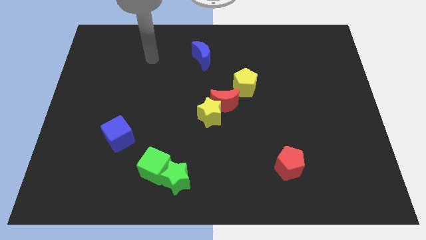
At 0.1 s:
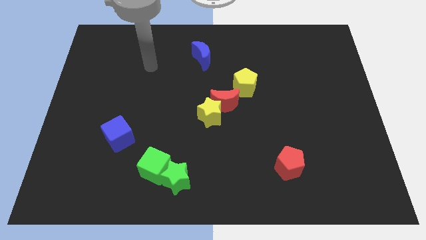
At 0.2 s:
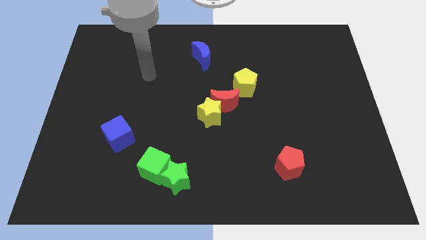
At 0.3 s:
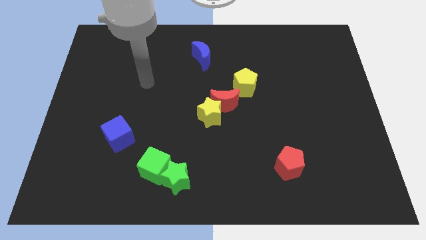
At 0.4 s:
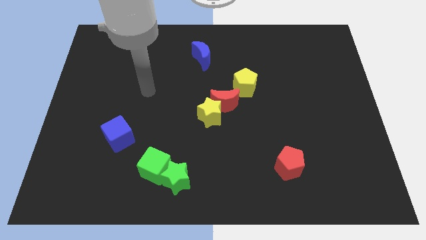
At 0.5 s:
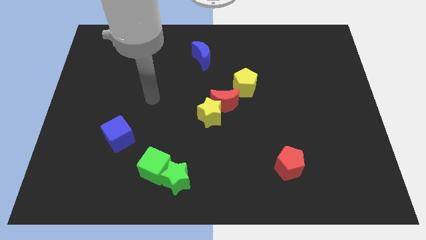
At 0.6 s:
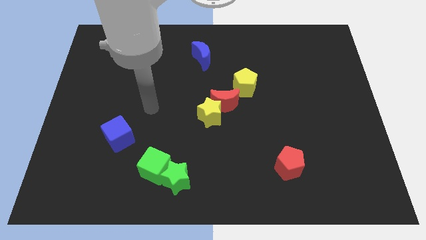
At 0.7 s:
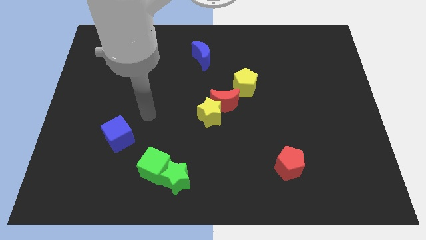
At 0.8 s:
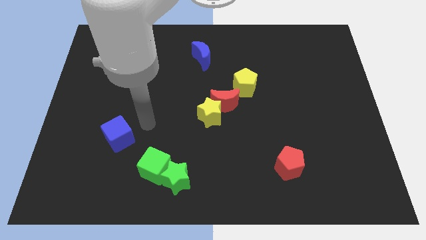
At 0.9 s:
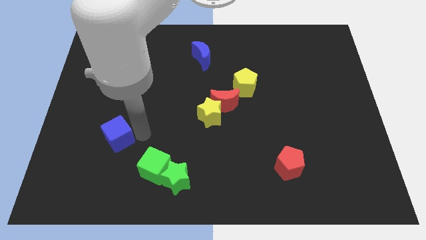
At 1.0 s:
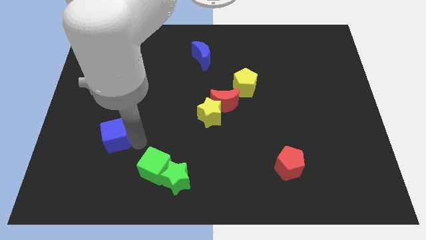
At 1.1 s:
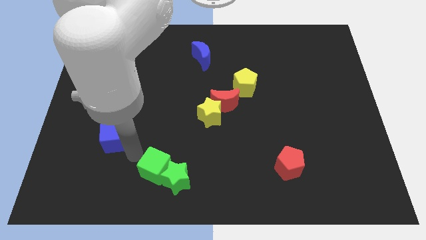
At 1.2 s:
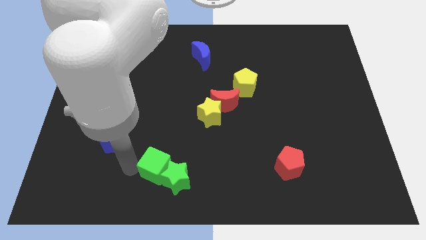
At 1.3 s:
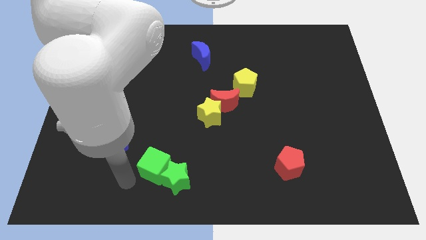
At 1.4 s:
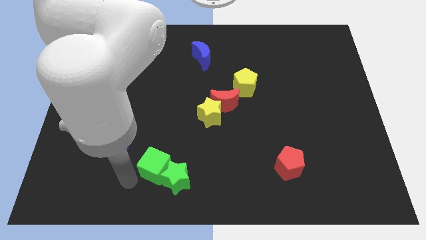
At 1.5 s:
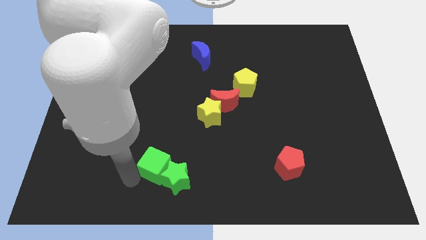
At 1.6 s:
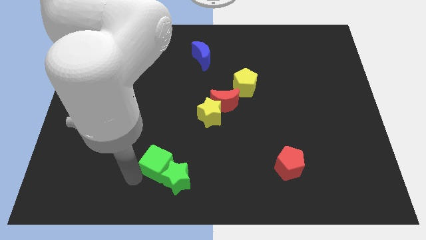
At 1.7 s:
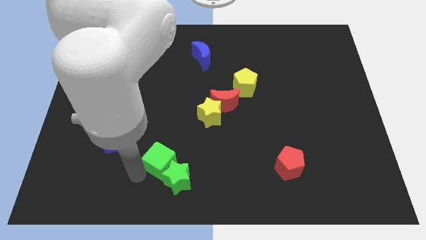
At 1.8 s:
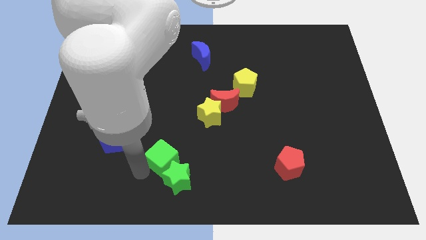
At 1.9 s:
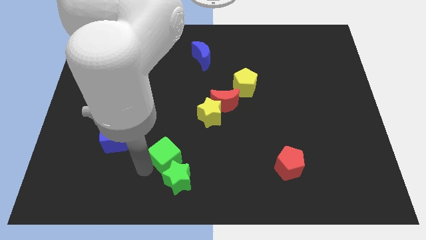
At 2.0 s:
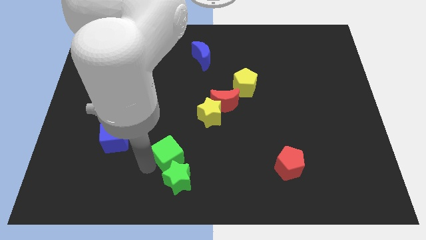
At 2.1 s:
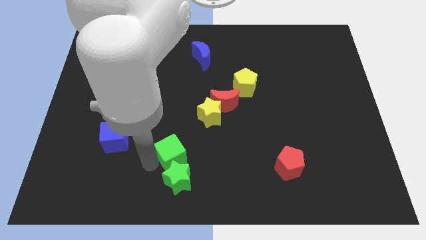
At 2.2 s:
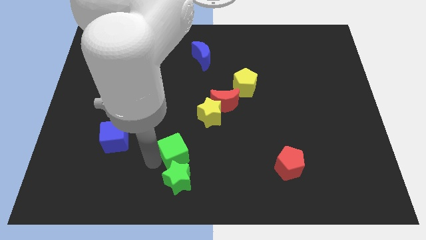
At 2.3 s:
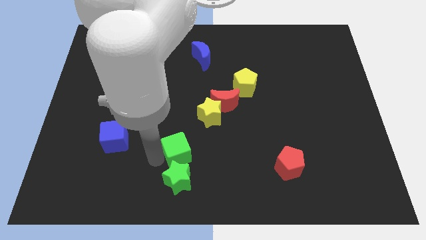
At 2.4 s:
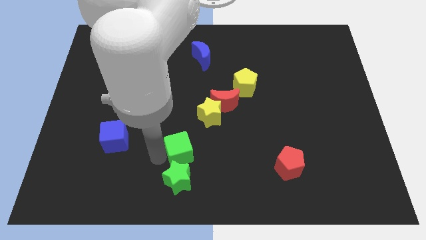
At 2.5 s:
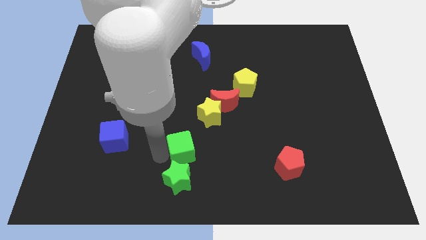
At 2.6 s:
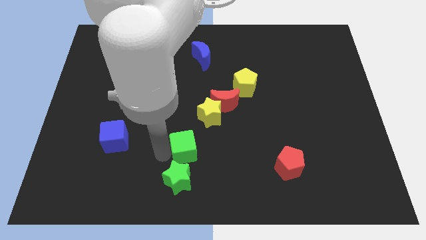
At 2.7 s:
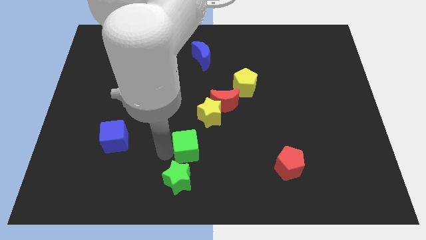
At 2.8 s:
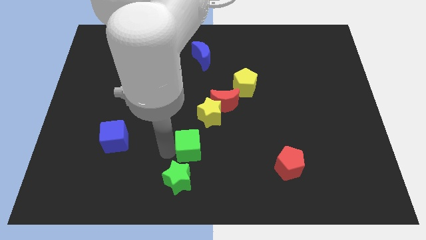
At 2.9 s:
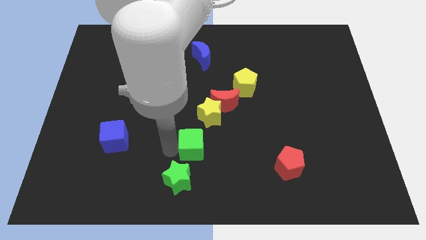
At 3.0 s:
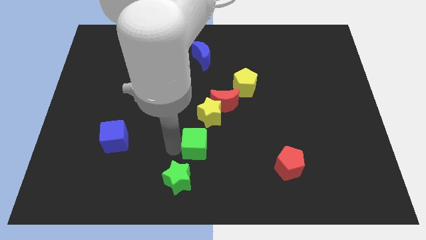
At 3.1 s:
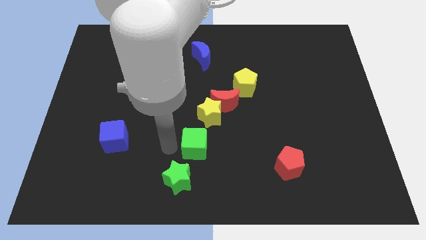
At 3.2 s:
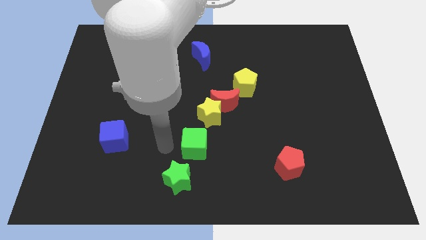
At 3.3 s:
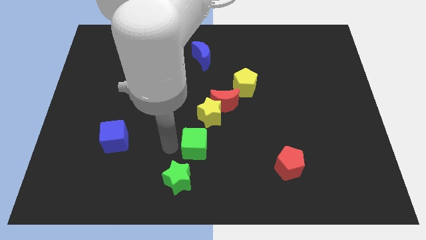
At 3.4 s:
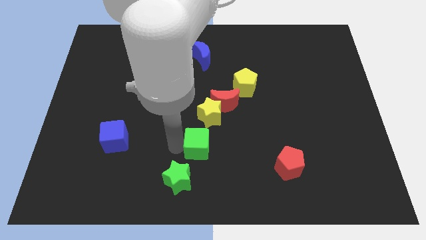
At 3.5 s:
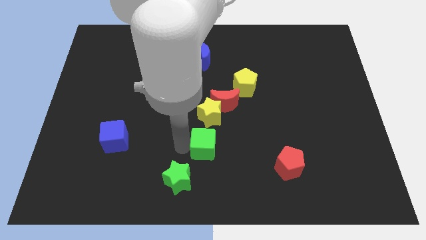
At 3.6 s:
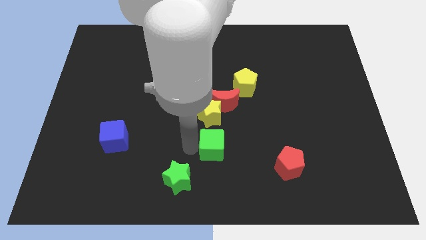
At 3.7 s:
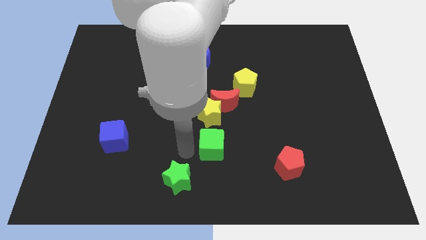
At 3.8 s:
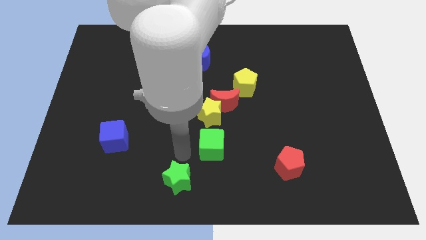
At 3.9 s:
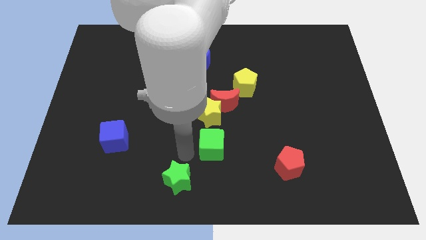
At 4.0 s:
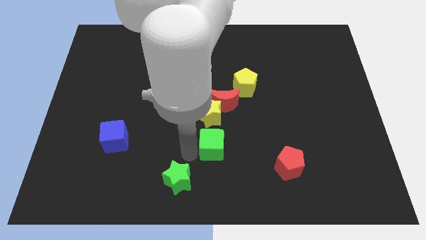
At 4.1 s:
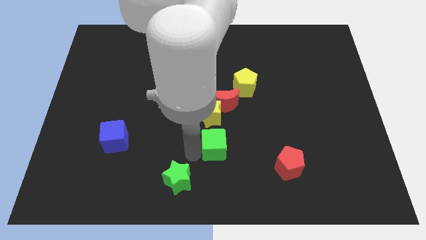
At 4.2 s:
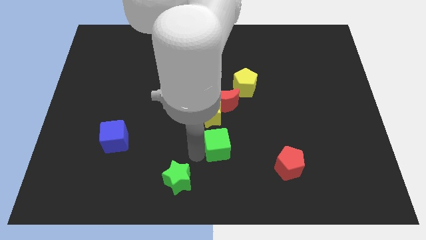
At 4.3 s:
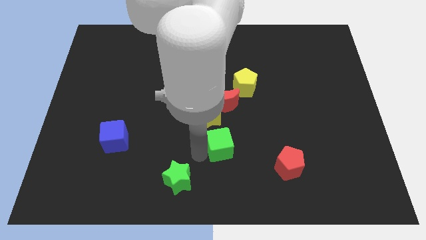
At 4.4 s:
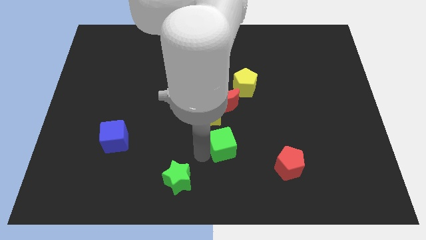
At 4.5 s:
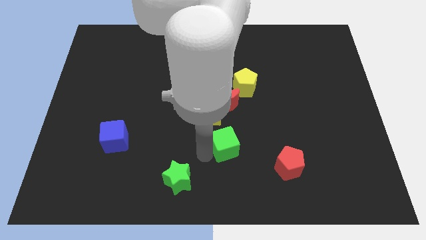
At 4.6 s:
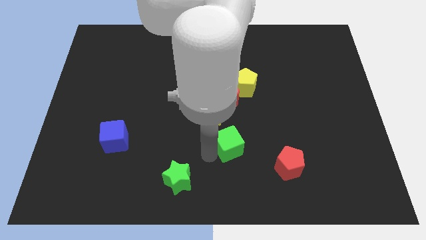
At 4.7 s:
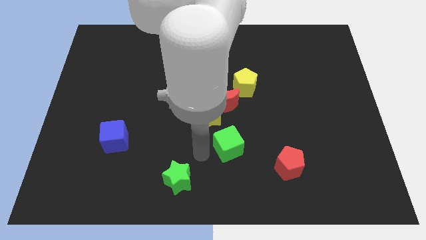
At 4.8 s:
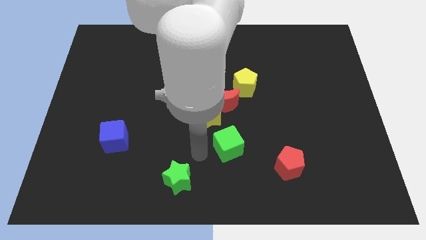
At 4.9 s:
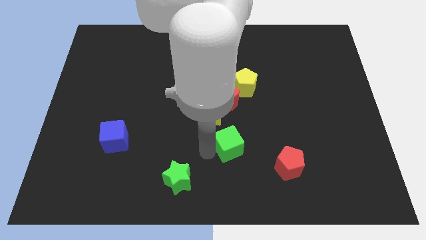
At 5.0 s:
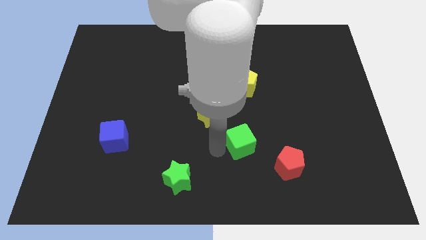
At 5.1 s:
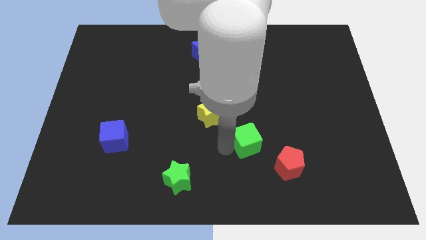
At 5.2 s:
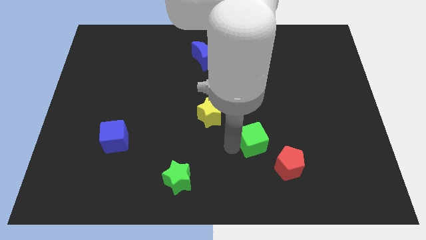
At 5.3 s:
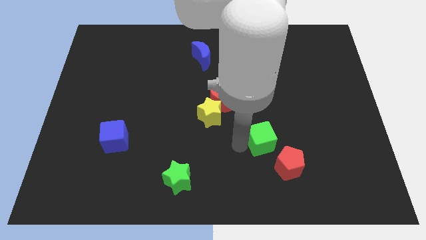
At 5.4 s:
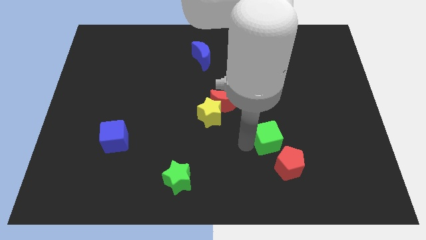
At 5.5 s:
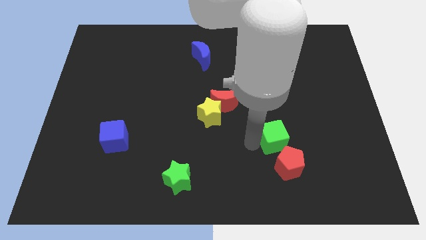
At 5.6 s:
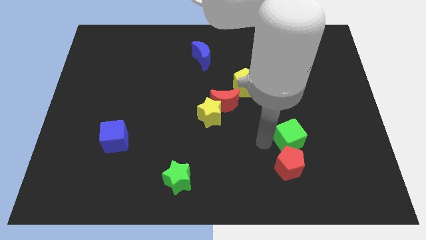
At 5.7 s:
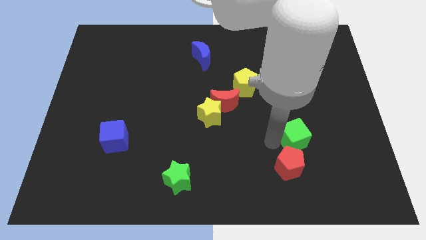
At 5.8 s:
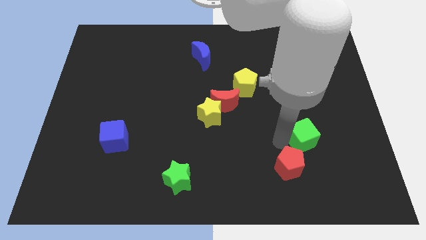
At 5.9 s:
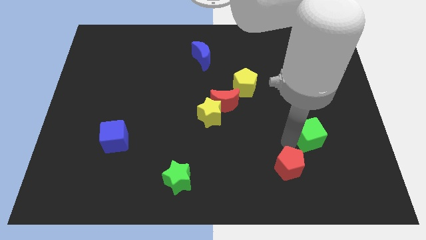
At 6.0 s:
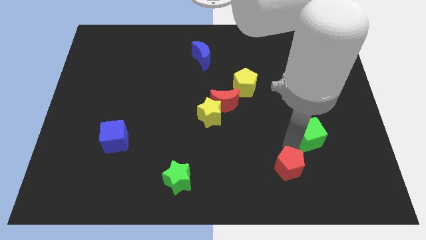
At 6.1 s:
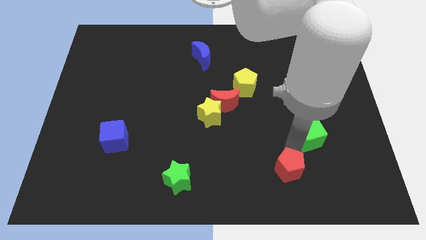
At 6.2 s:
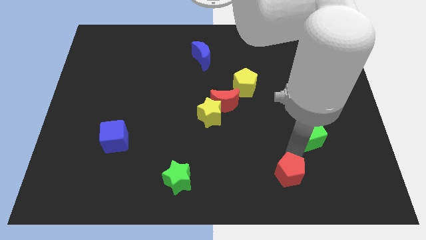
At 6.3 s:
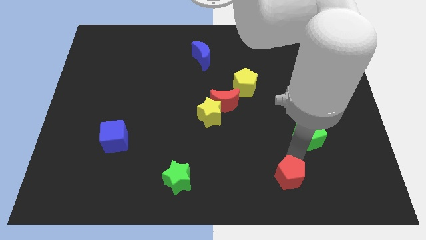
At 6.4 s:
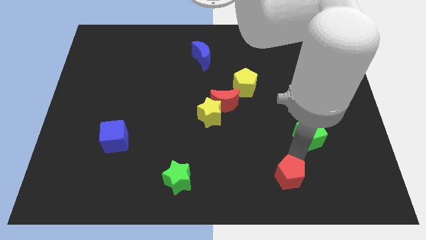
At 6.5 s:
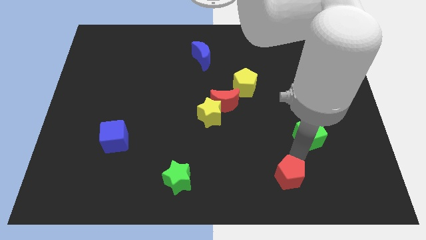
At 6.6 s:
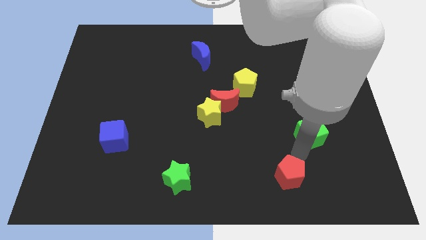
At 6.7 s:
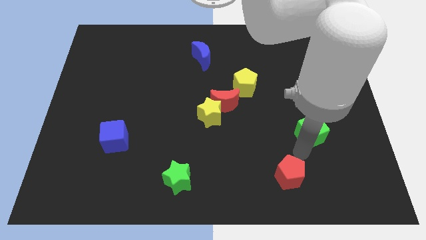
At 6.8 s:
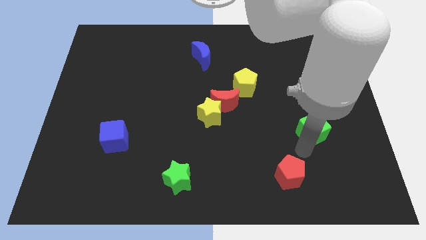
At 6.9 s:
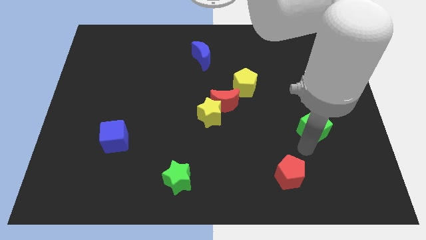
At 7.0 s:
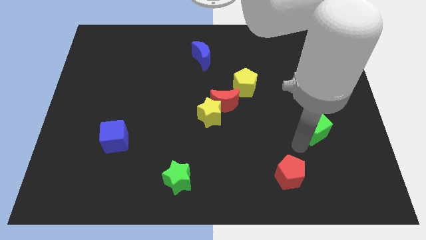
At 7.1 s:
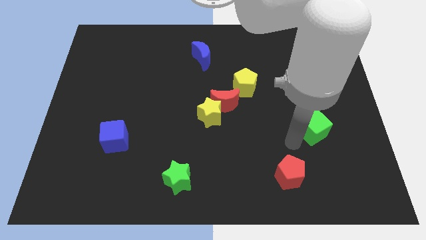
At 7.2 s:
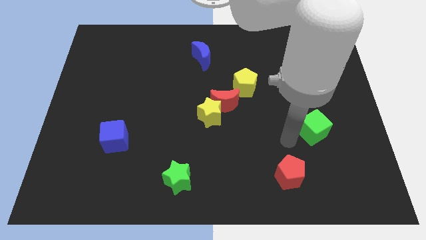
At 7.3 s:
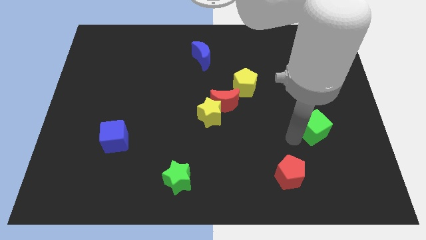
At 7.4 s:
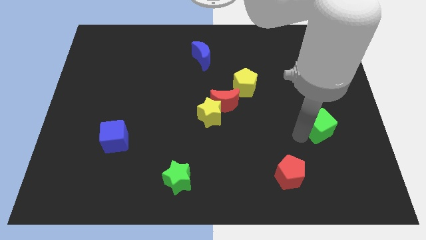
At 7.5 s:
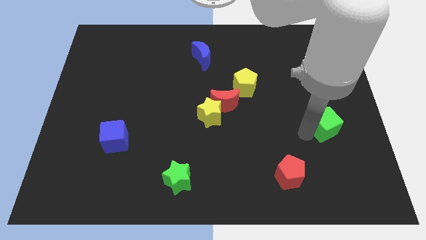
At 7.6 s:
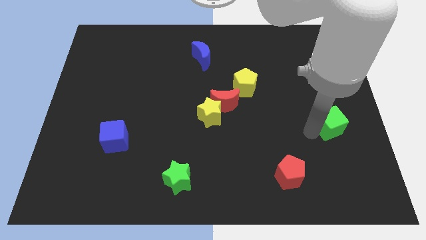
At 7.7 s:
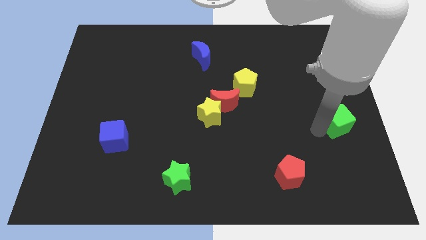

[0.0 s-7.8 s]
slide the green cube to the right side
